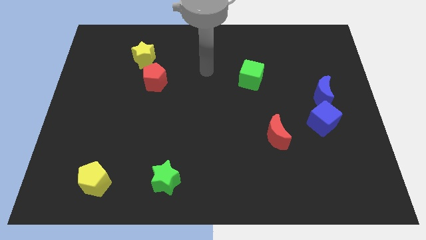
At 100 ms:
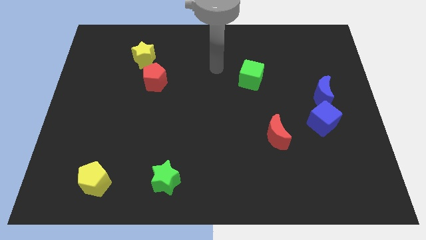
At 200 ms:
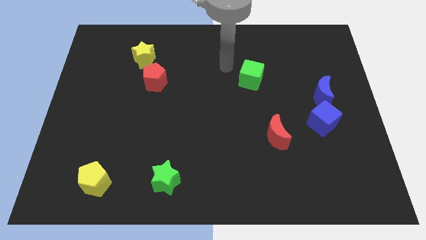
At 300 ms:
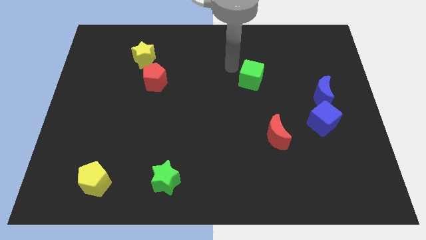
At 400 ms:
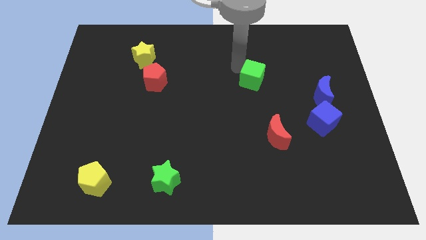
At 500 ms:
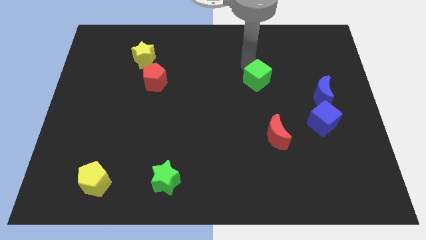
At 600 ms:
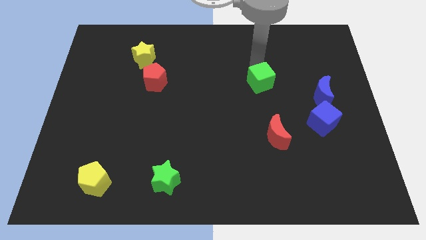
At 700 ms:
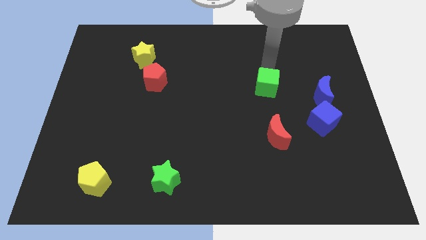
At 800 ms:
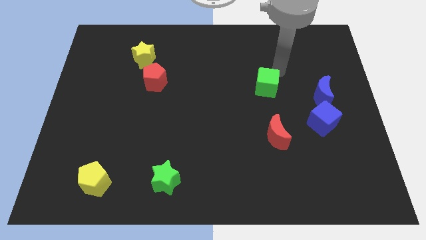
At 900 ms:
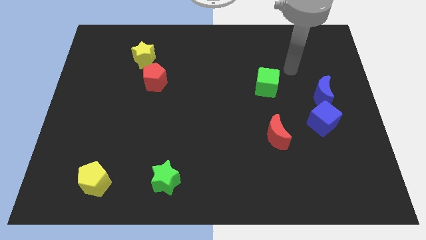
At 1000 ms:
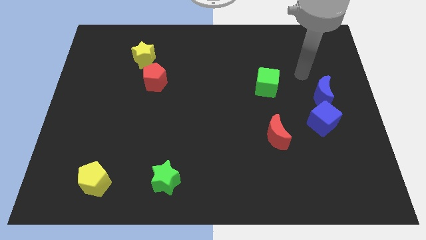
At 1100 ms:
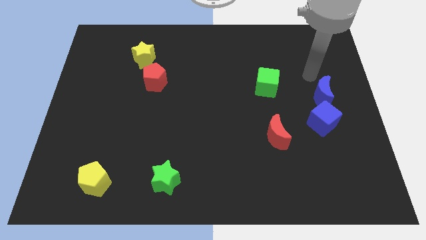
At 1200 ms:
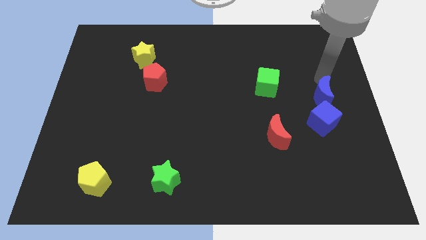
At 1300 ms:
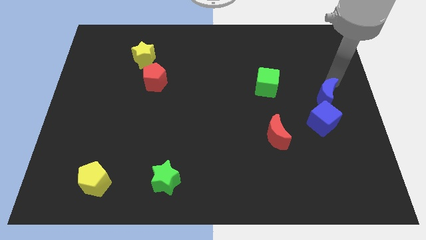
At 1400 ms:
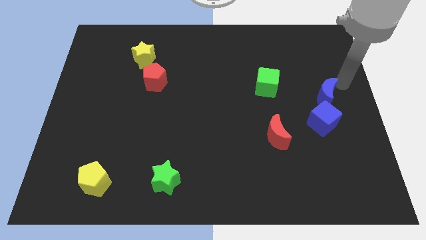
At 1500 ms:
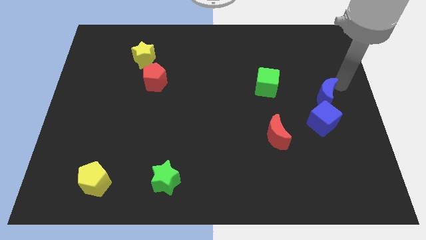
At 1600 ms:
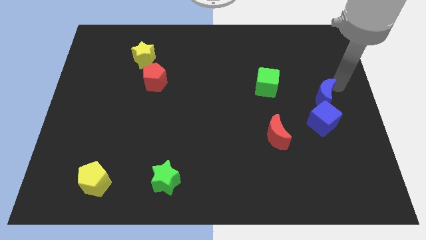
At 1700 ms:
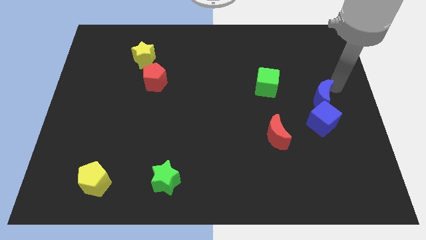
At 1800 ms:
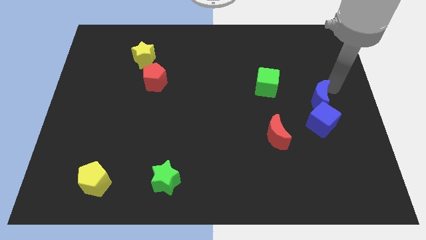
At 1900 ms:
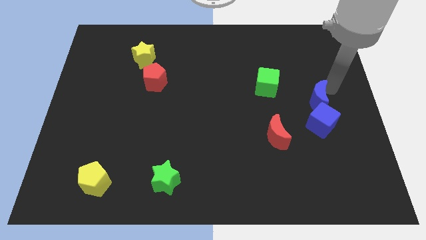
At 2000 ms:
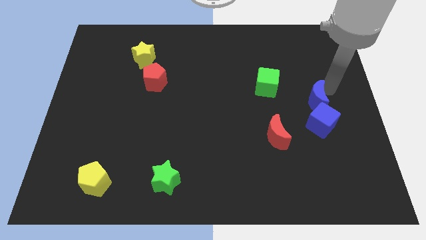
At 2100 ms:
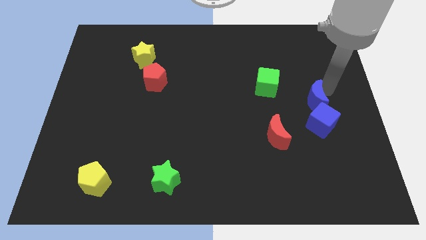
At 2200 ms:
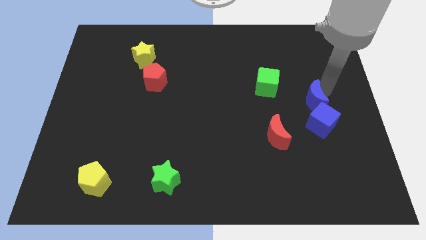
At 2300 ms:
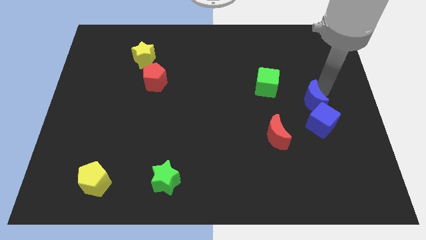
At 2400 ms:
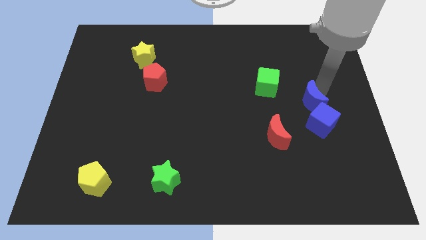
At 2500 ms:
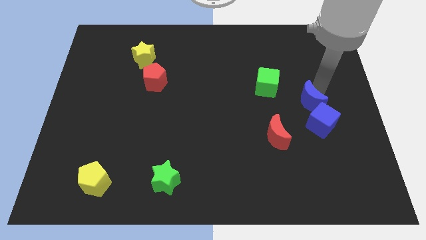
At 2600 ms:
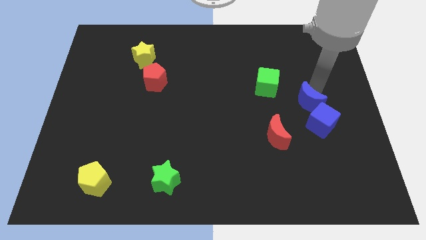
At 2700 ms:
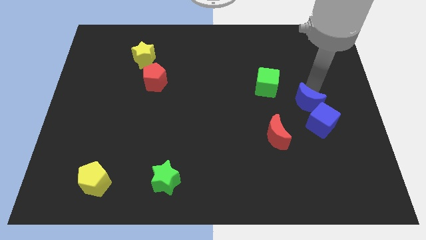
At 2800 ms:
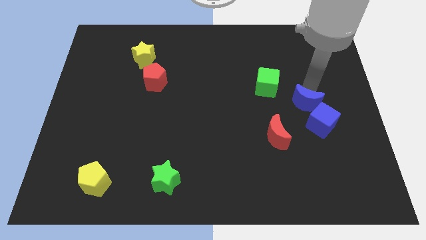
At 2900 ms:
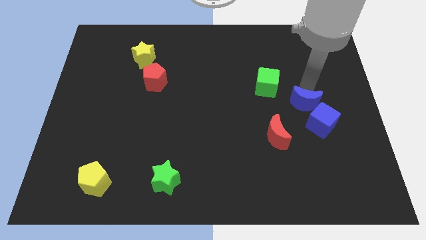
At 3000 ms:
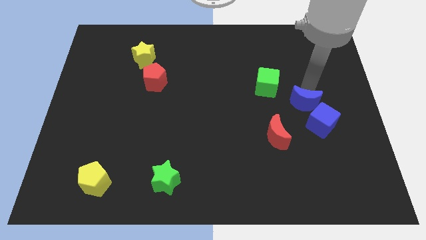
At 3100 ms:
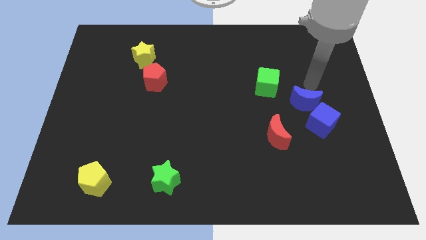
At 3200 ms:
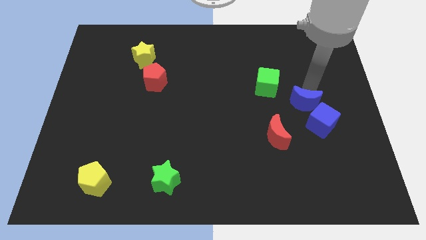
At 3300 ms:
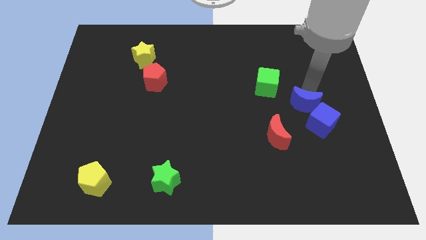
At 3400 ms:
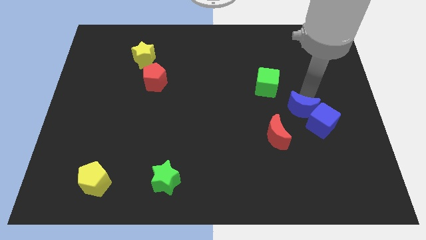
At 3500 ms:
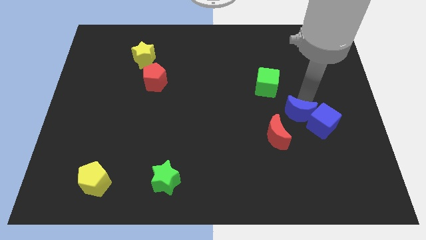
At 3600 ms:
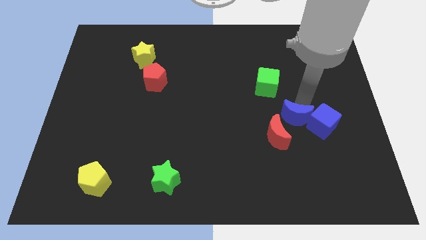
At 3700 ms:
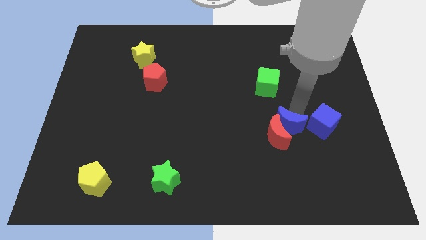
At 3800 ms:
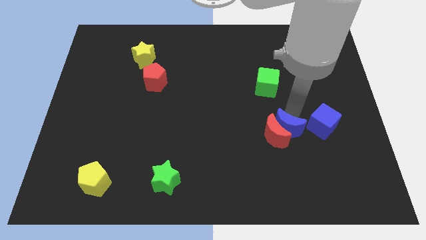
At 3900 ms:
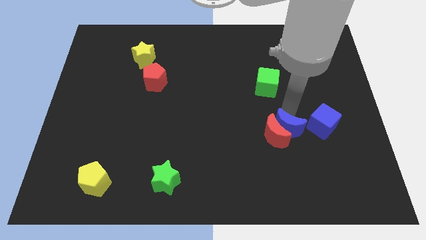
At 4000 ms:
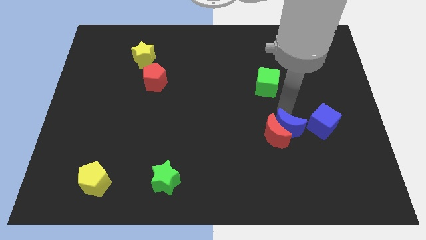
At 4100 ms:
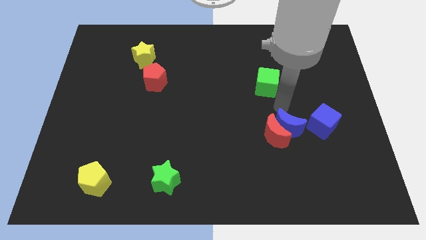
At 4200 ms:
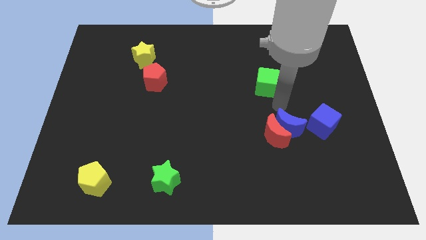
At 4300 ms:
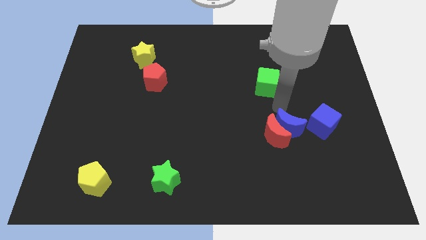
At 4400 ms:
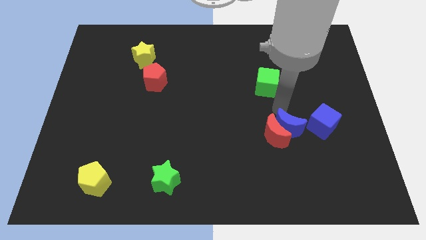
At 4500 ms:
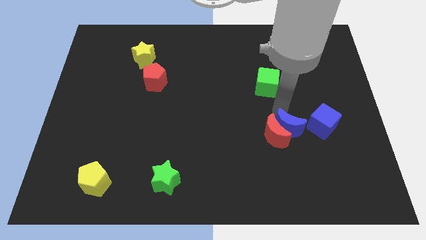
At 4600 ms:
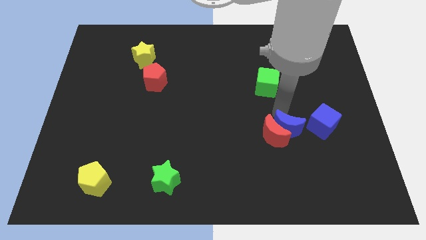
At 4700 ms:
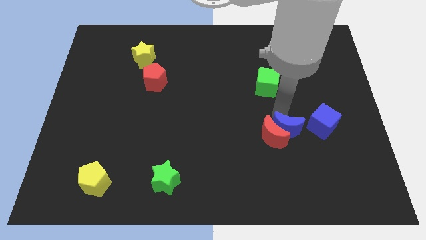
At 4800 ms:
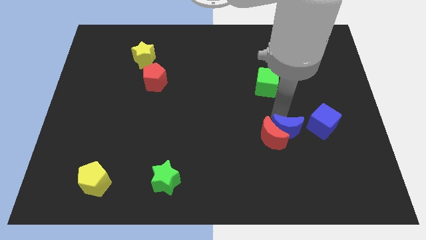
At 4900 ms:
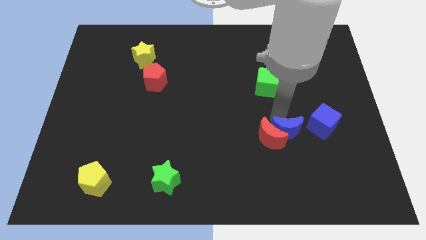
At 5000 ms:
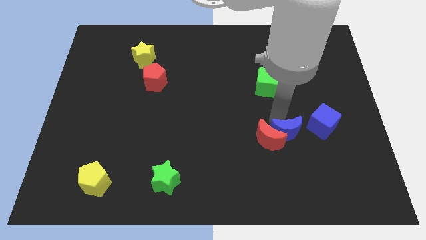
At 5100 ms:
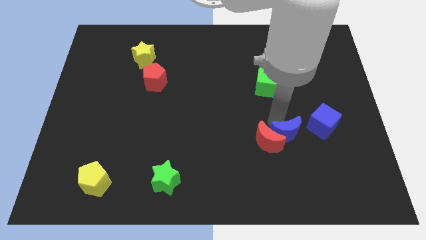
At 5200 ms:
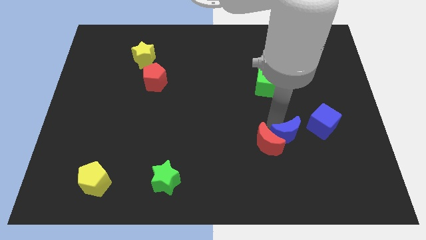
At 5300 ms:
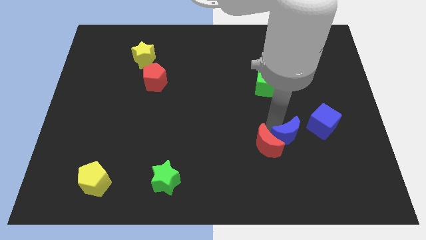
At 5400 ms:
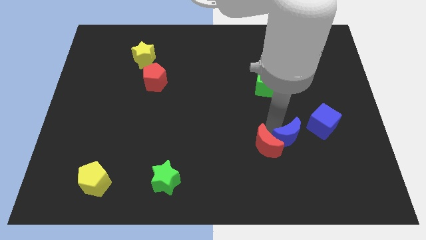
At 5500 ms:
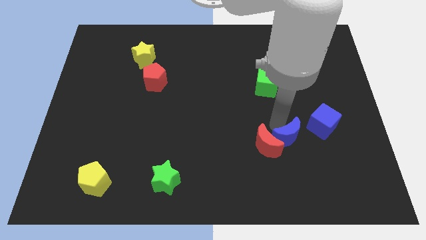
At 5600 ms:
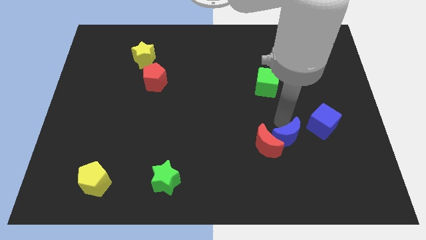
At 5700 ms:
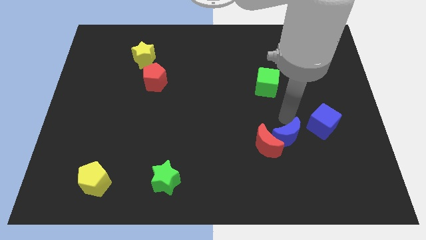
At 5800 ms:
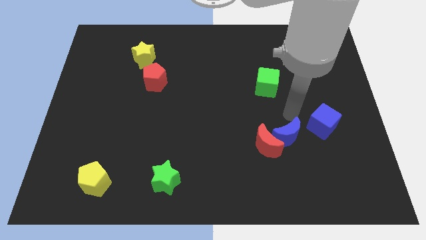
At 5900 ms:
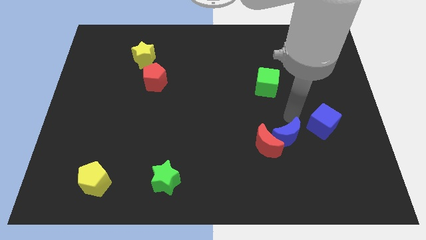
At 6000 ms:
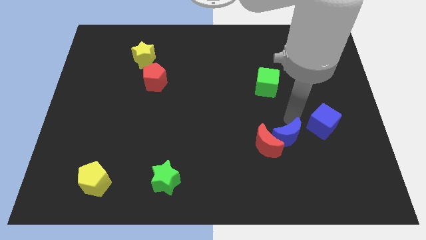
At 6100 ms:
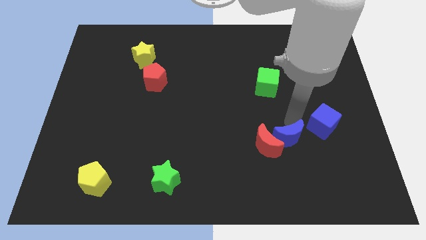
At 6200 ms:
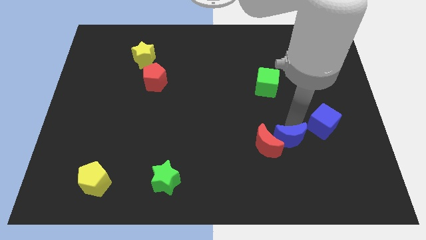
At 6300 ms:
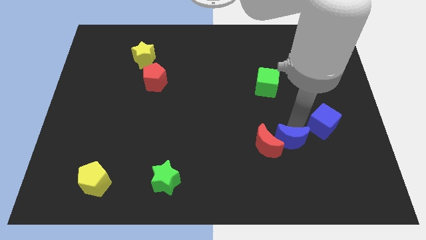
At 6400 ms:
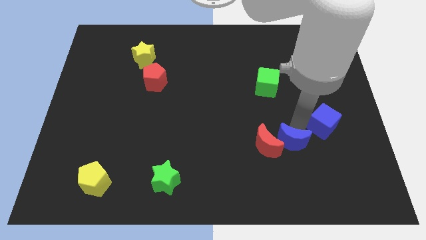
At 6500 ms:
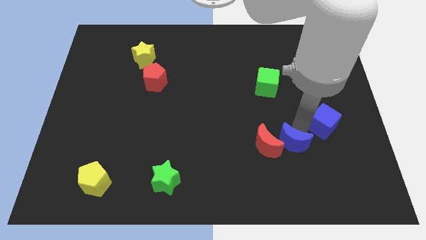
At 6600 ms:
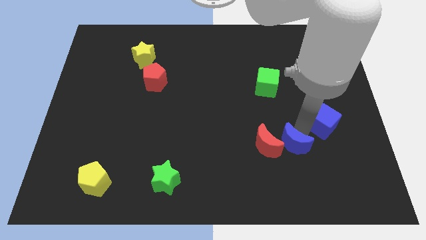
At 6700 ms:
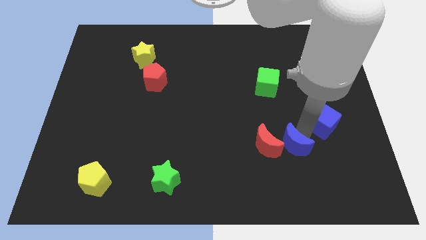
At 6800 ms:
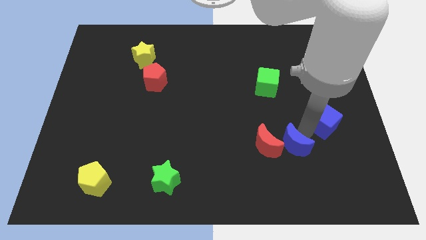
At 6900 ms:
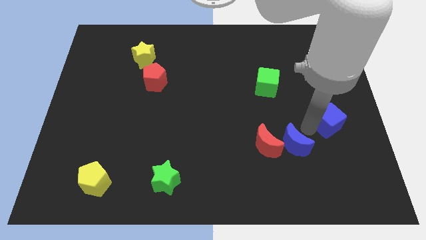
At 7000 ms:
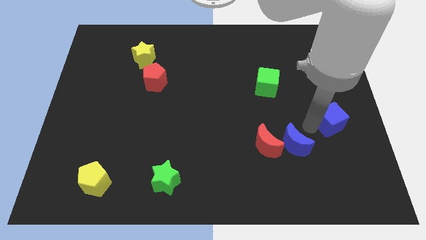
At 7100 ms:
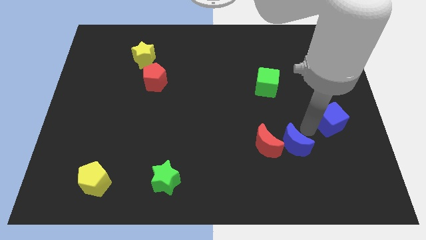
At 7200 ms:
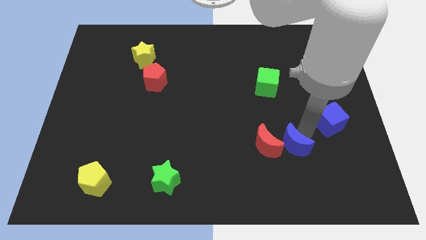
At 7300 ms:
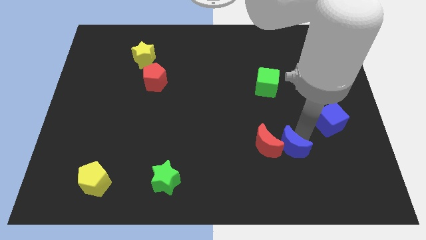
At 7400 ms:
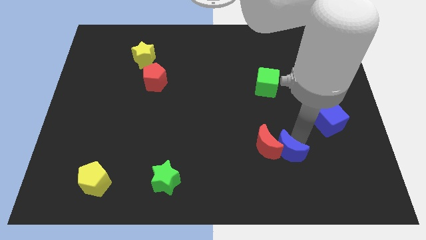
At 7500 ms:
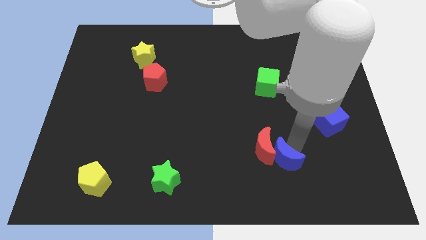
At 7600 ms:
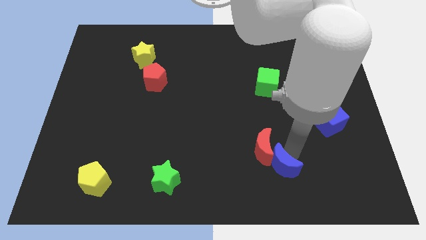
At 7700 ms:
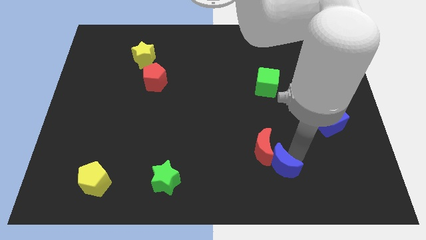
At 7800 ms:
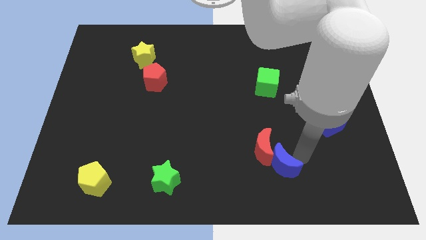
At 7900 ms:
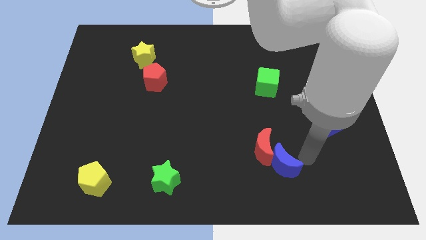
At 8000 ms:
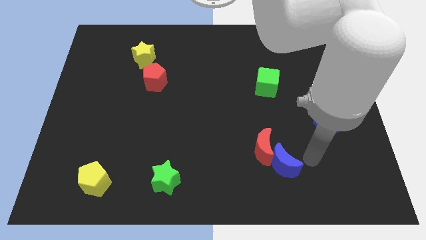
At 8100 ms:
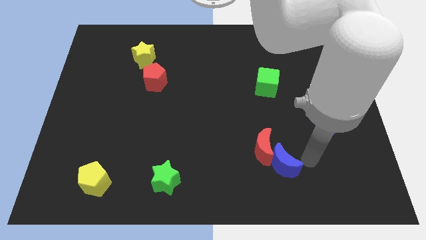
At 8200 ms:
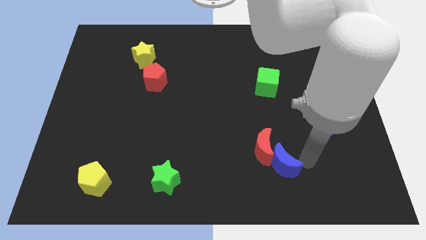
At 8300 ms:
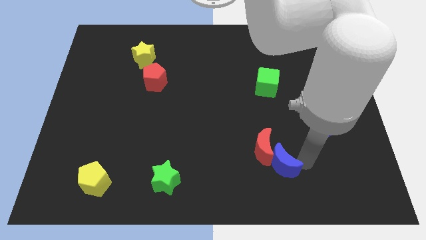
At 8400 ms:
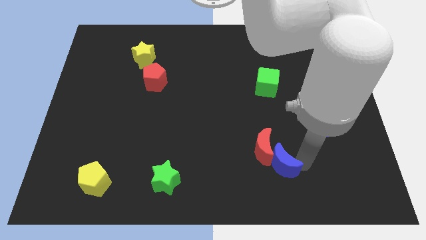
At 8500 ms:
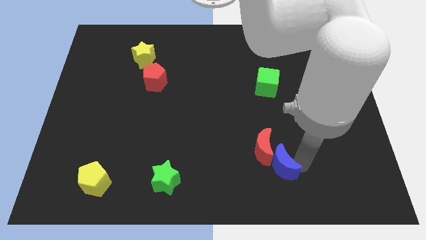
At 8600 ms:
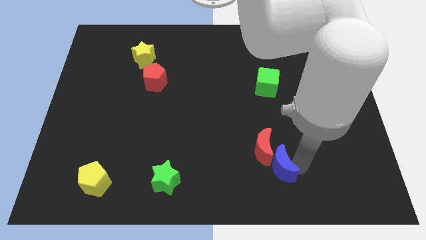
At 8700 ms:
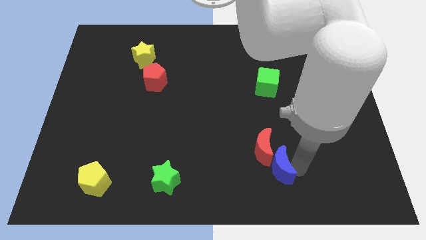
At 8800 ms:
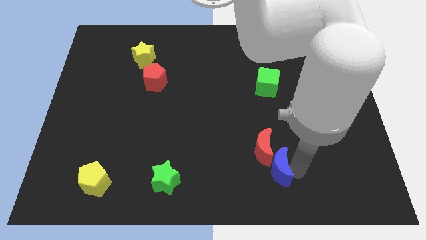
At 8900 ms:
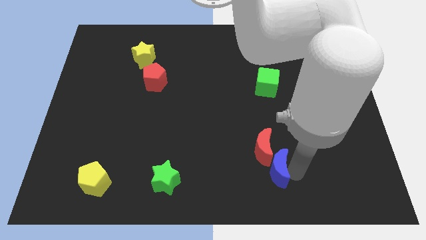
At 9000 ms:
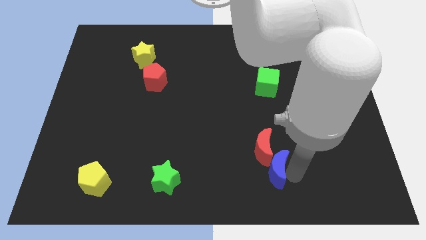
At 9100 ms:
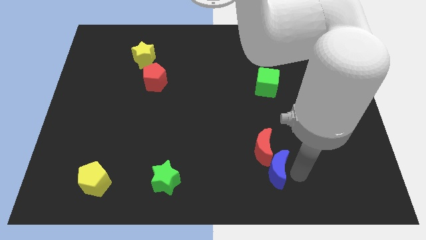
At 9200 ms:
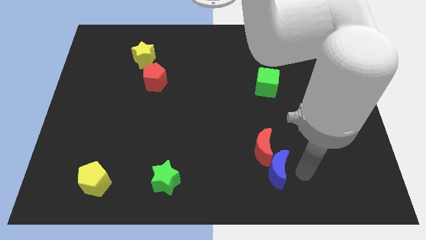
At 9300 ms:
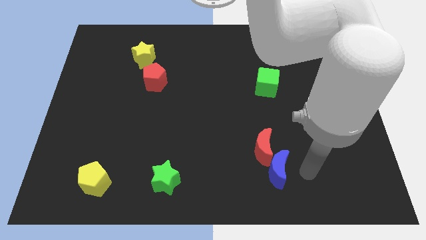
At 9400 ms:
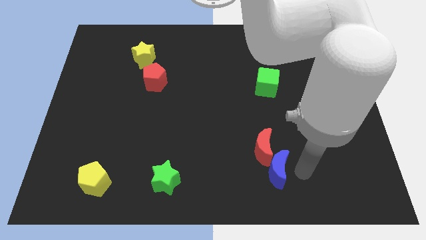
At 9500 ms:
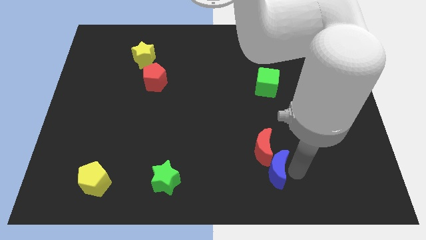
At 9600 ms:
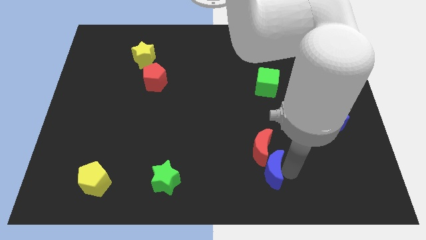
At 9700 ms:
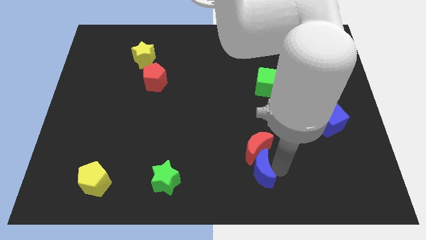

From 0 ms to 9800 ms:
move the blue moon to the bottom
